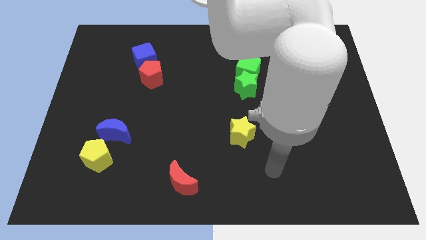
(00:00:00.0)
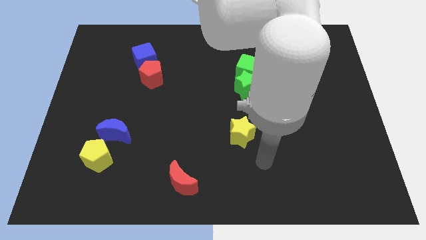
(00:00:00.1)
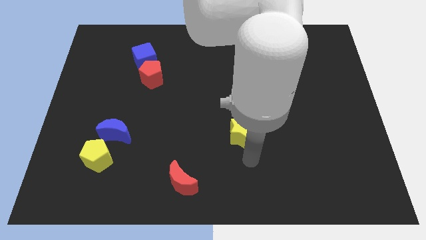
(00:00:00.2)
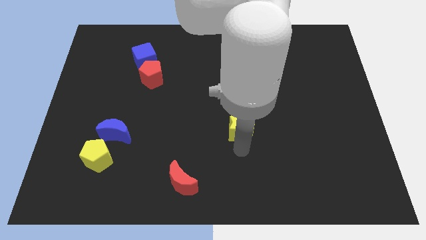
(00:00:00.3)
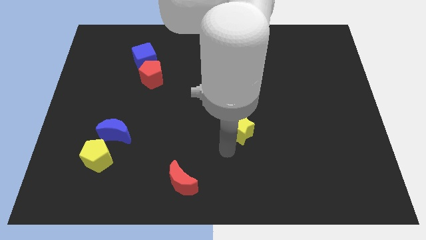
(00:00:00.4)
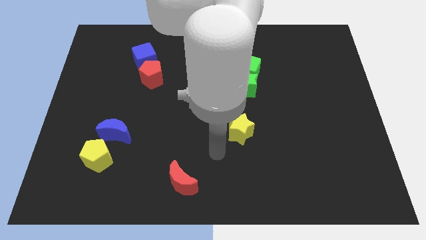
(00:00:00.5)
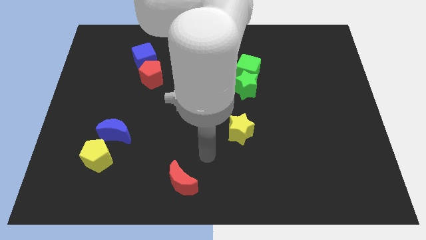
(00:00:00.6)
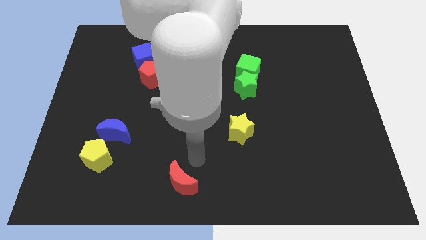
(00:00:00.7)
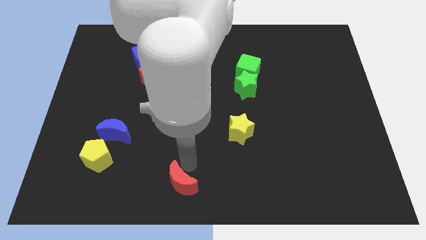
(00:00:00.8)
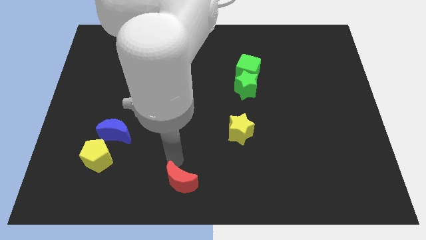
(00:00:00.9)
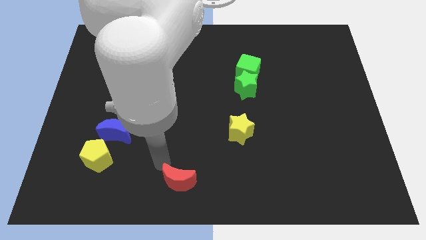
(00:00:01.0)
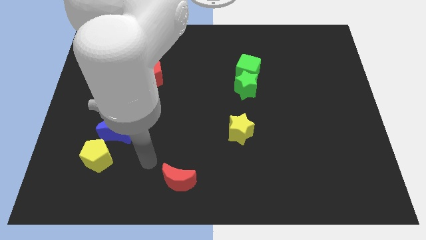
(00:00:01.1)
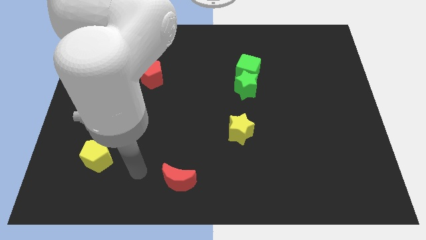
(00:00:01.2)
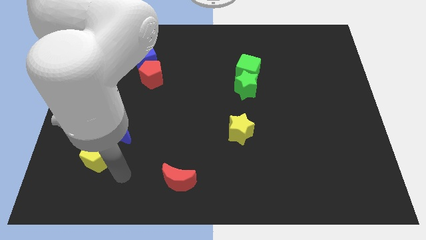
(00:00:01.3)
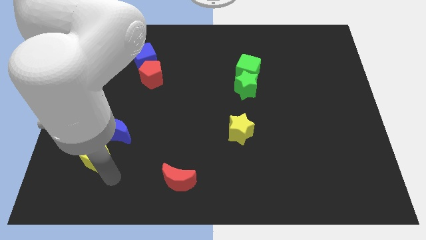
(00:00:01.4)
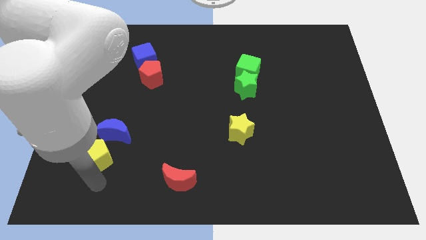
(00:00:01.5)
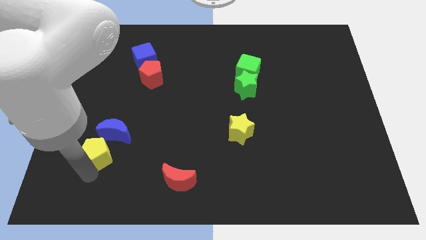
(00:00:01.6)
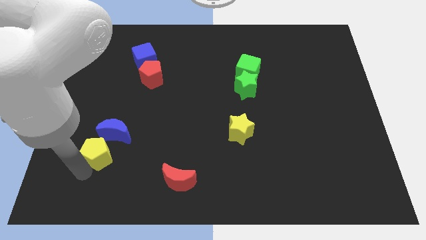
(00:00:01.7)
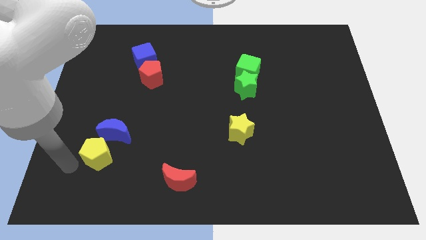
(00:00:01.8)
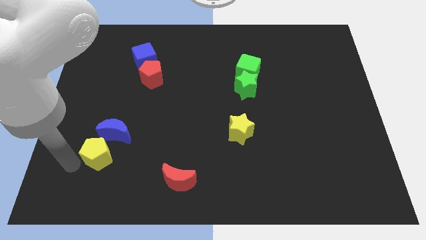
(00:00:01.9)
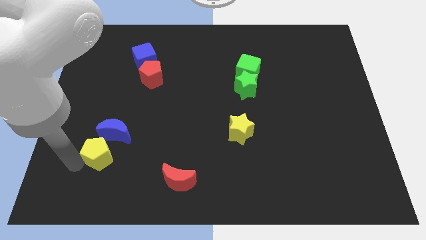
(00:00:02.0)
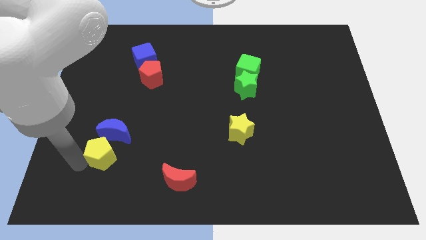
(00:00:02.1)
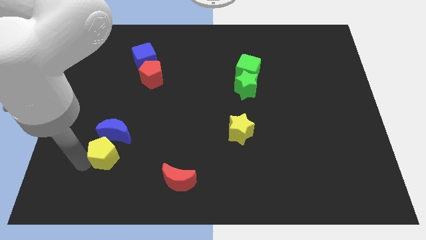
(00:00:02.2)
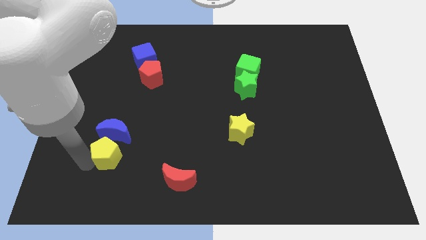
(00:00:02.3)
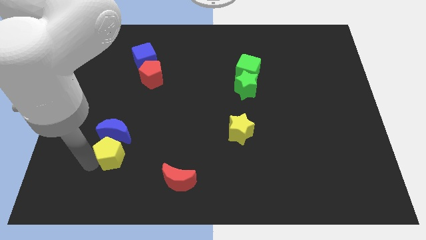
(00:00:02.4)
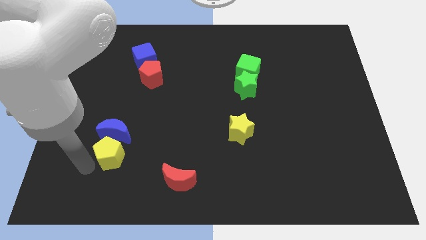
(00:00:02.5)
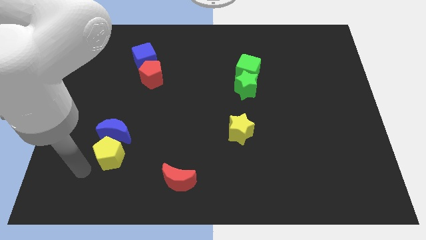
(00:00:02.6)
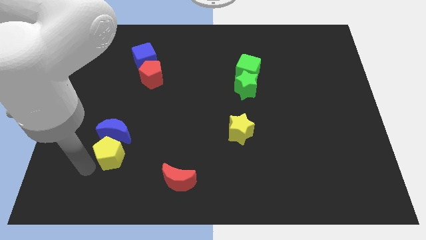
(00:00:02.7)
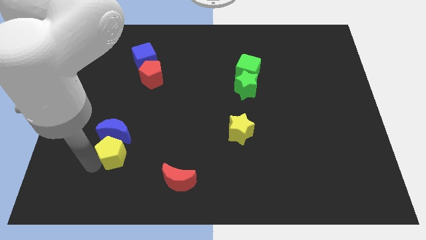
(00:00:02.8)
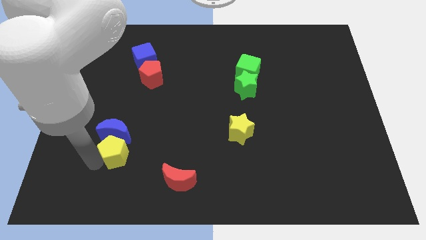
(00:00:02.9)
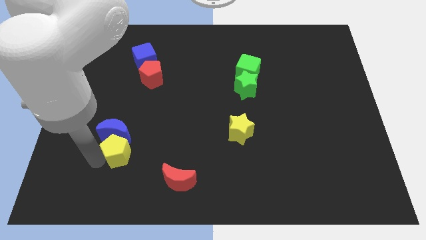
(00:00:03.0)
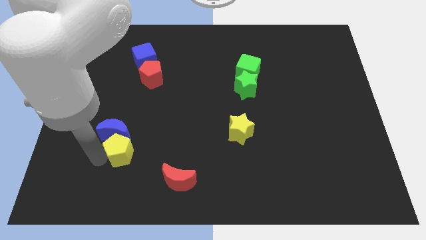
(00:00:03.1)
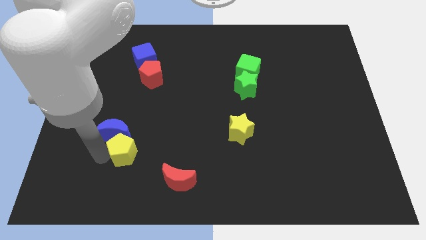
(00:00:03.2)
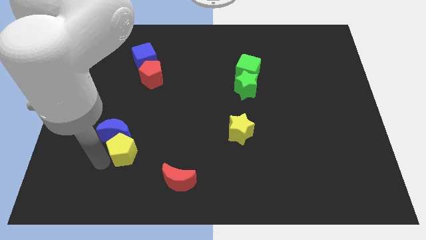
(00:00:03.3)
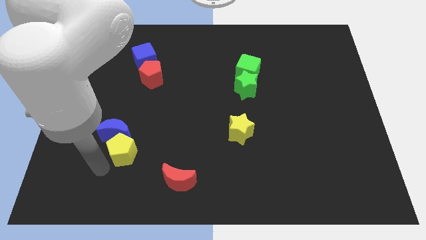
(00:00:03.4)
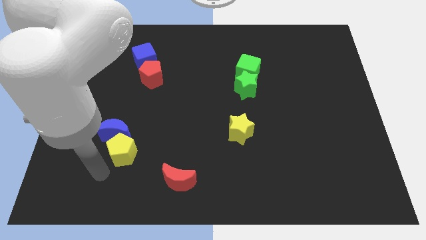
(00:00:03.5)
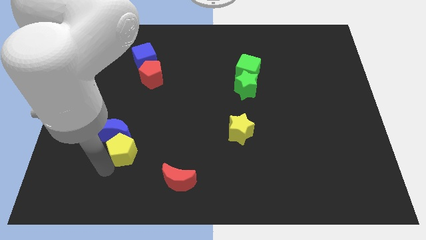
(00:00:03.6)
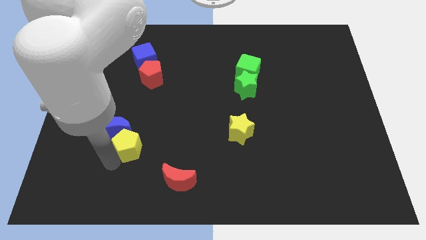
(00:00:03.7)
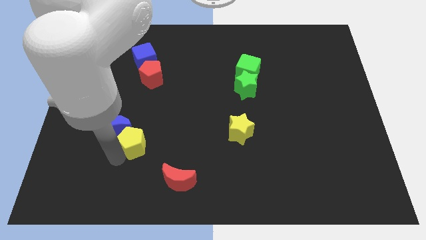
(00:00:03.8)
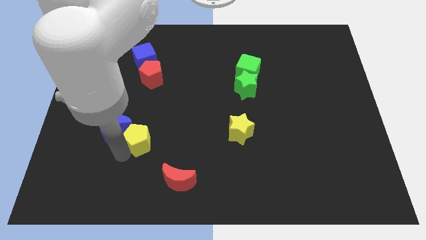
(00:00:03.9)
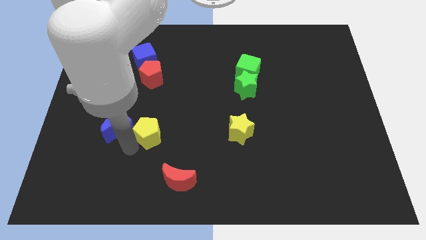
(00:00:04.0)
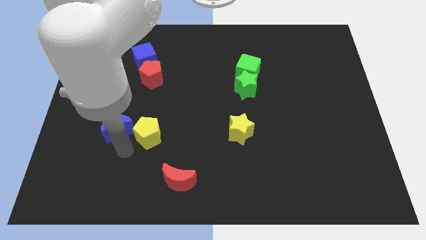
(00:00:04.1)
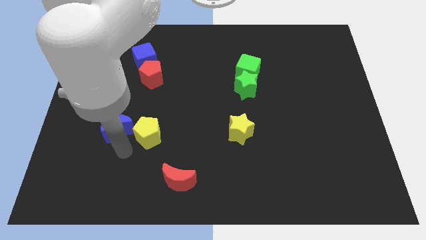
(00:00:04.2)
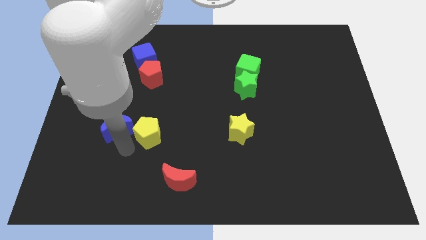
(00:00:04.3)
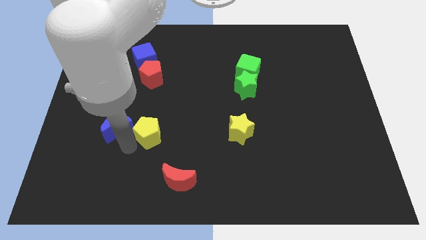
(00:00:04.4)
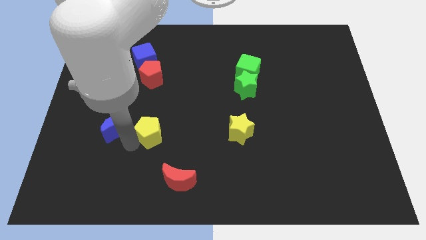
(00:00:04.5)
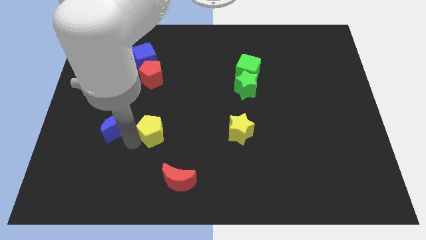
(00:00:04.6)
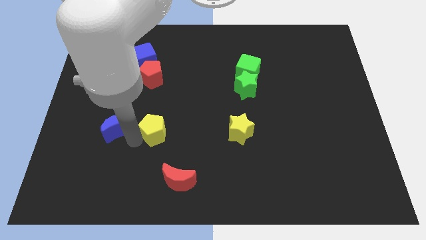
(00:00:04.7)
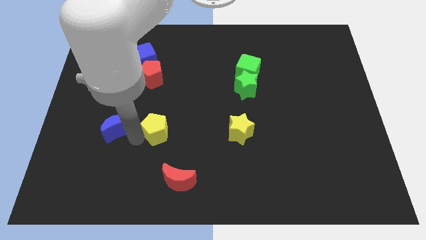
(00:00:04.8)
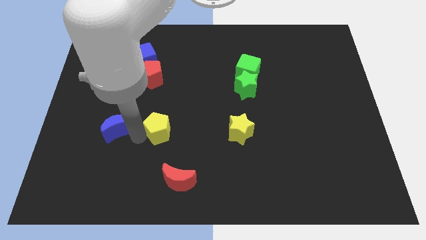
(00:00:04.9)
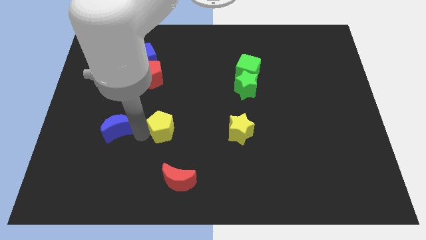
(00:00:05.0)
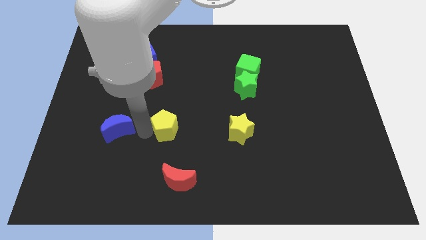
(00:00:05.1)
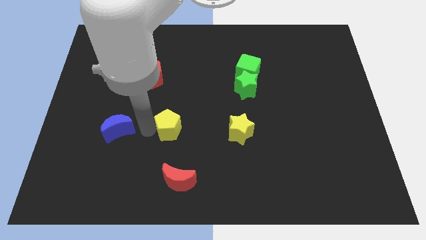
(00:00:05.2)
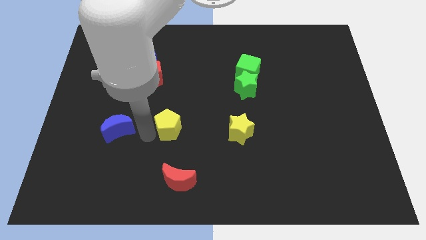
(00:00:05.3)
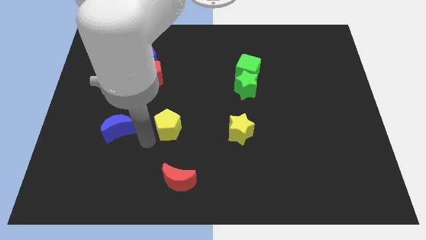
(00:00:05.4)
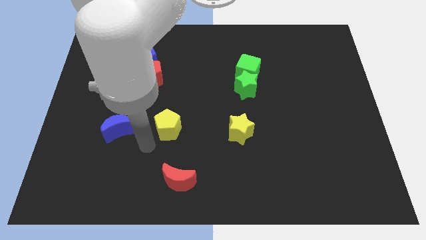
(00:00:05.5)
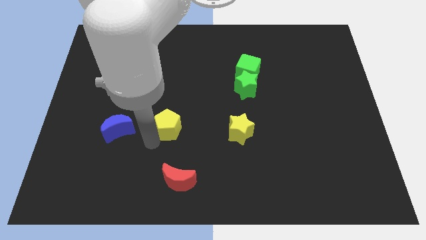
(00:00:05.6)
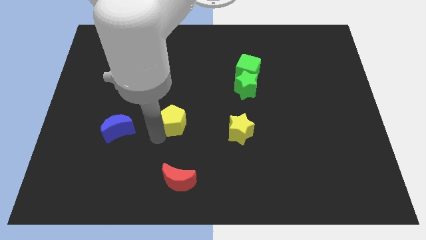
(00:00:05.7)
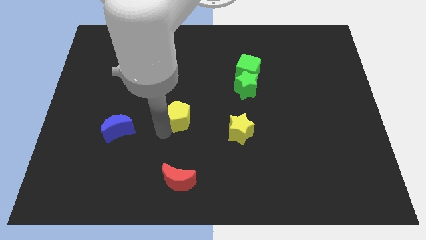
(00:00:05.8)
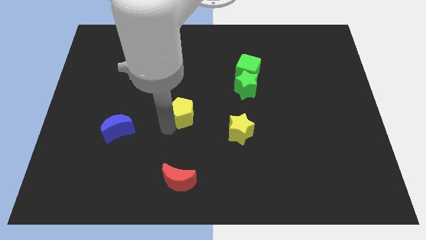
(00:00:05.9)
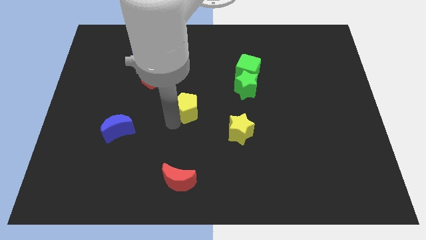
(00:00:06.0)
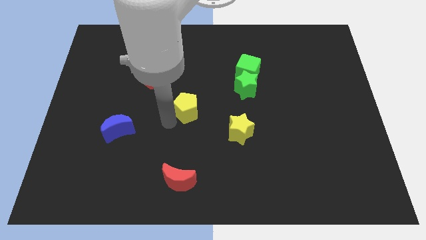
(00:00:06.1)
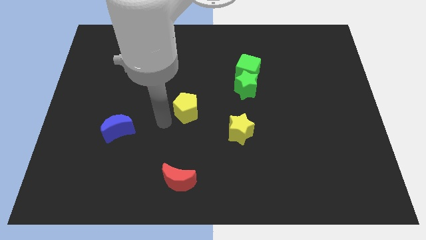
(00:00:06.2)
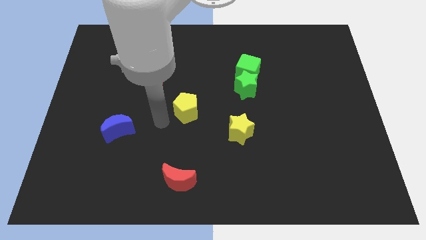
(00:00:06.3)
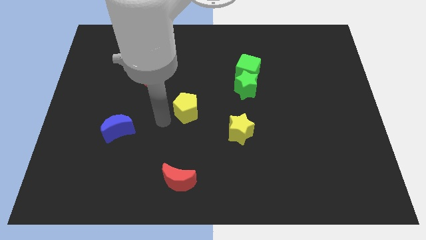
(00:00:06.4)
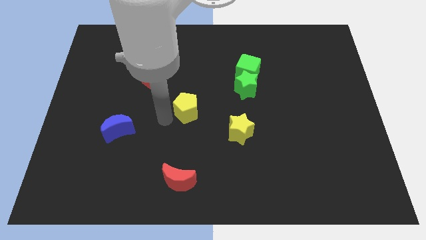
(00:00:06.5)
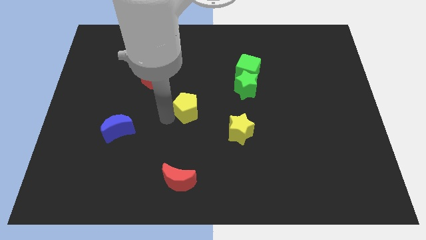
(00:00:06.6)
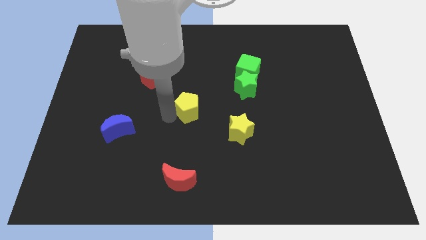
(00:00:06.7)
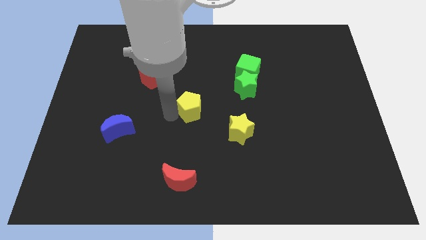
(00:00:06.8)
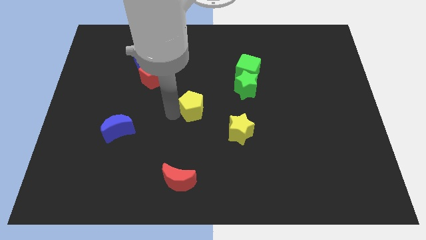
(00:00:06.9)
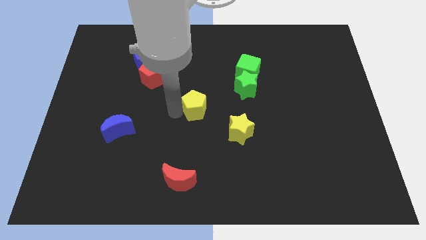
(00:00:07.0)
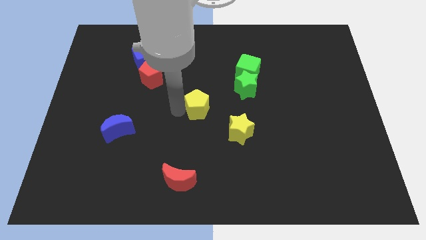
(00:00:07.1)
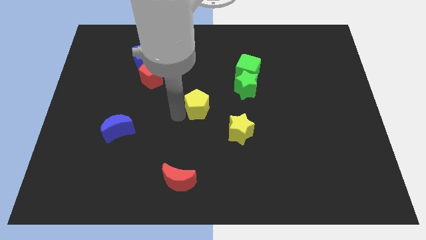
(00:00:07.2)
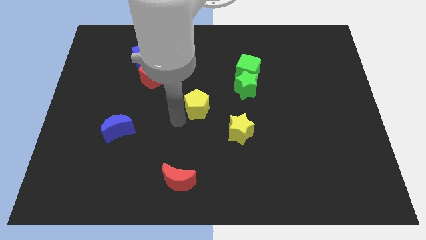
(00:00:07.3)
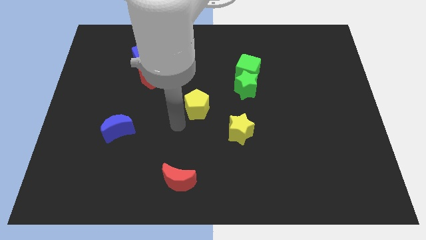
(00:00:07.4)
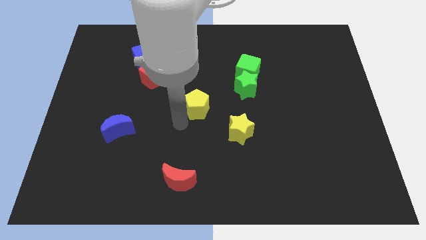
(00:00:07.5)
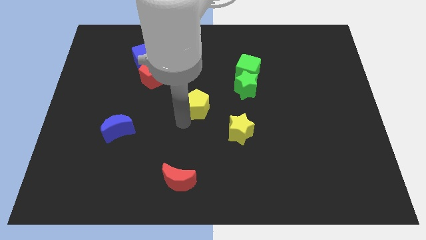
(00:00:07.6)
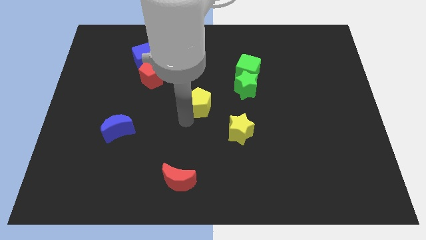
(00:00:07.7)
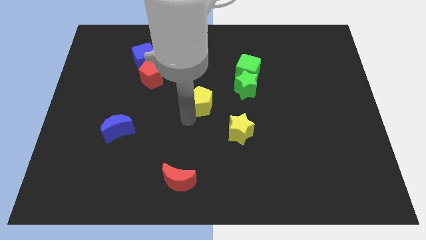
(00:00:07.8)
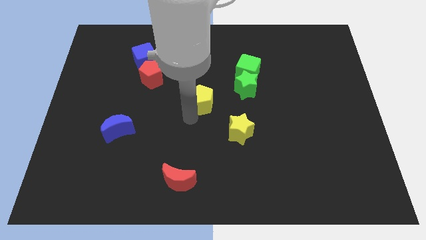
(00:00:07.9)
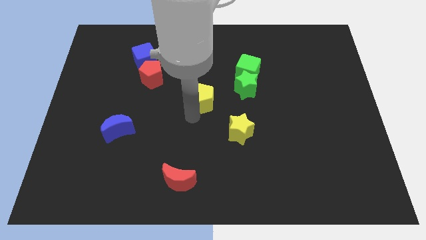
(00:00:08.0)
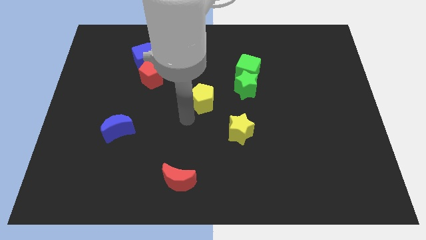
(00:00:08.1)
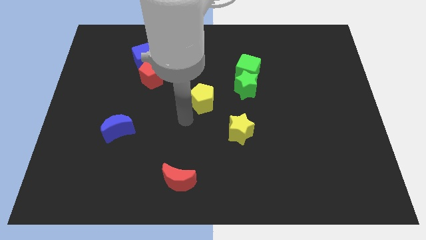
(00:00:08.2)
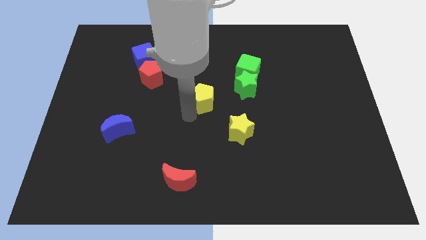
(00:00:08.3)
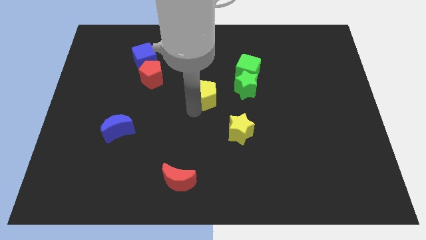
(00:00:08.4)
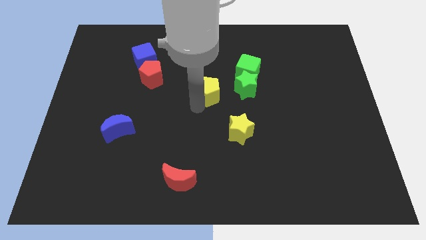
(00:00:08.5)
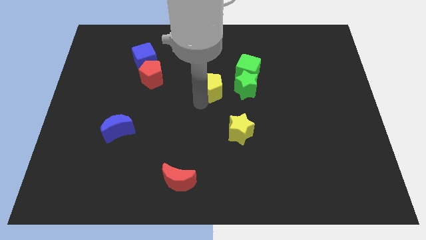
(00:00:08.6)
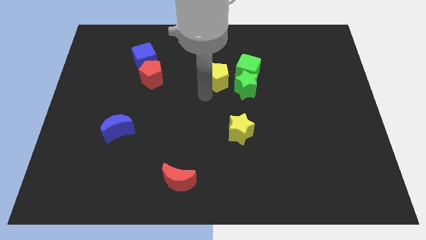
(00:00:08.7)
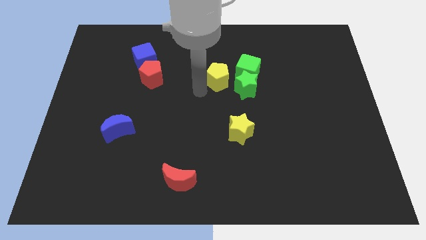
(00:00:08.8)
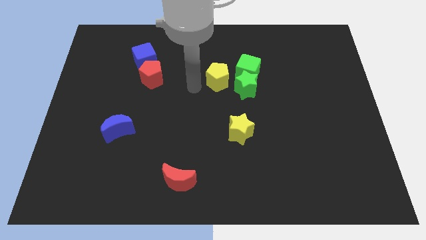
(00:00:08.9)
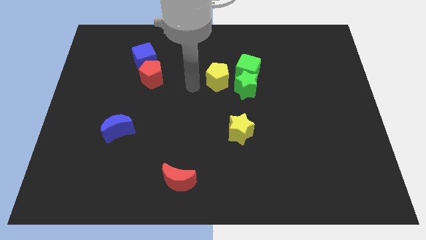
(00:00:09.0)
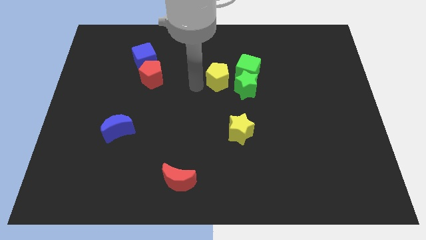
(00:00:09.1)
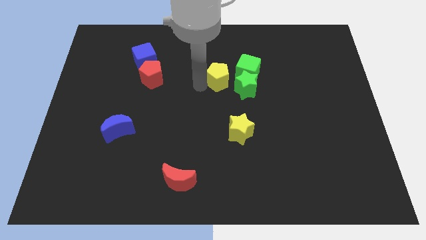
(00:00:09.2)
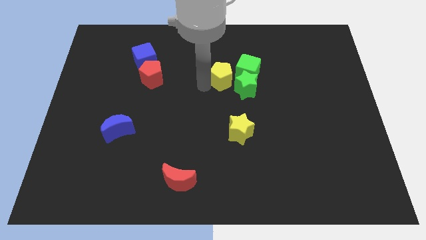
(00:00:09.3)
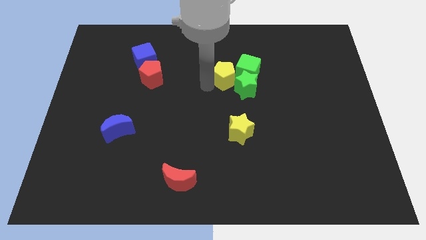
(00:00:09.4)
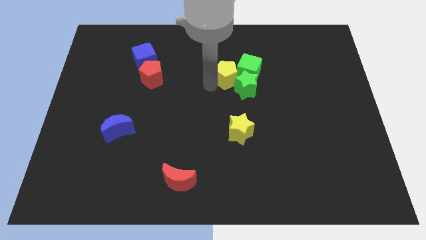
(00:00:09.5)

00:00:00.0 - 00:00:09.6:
move the yellow pentagon close to the green cube
